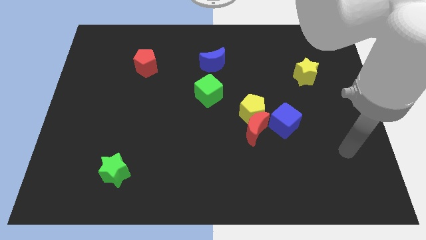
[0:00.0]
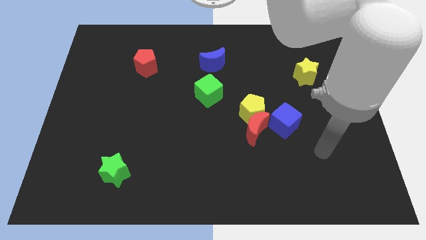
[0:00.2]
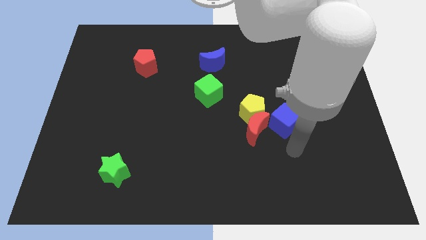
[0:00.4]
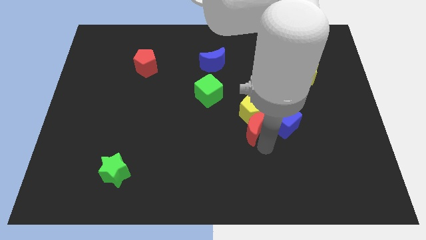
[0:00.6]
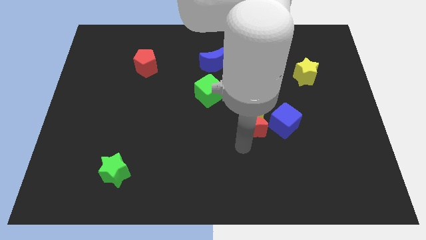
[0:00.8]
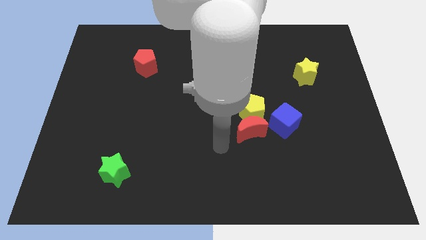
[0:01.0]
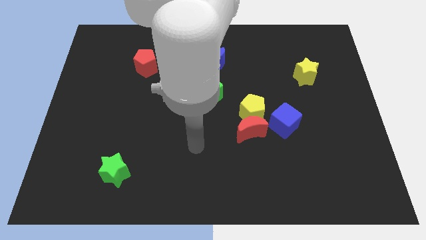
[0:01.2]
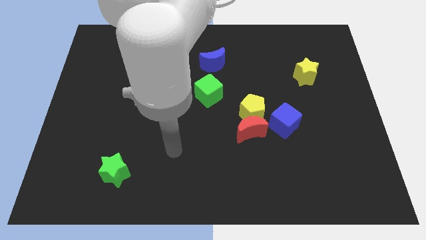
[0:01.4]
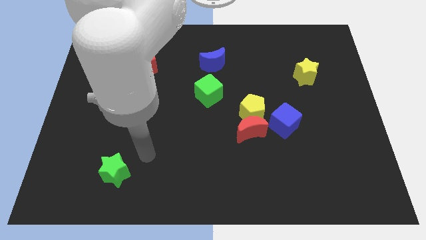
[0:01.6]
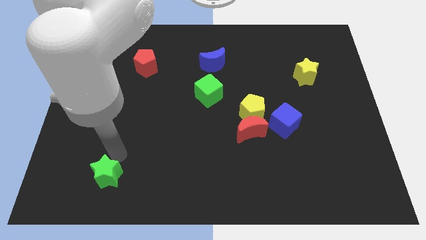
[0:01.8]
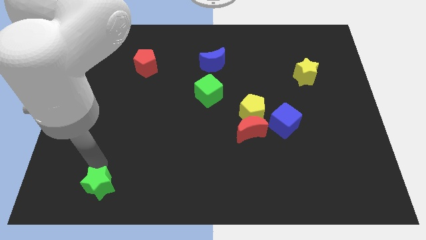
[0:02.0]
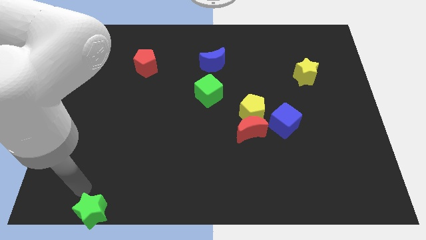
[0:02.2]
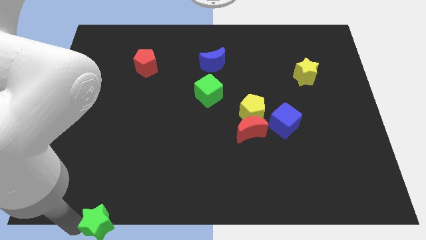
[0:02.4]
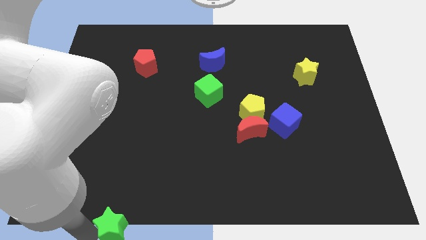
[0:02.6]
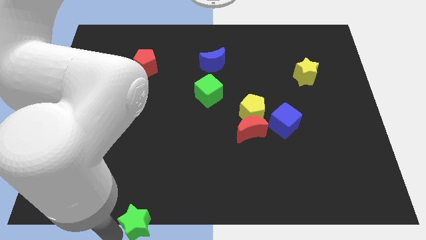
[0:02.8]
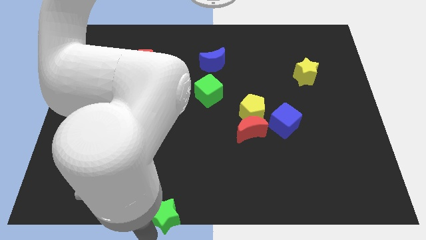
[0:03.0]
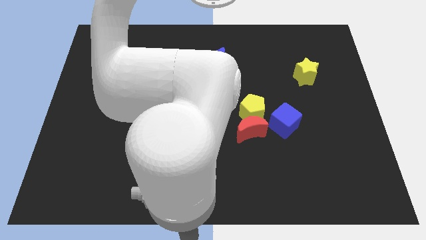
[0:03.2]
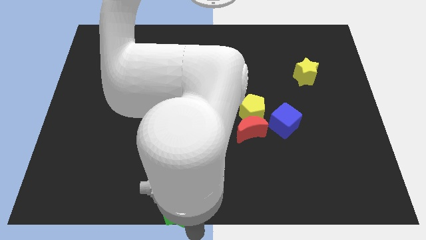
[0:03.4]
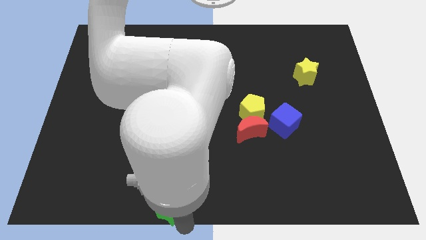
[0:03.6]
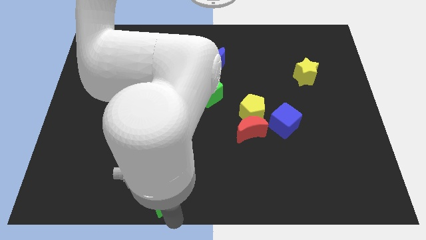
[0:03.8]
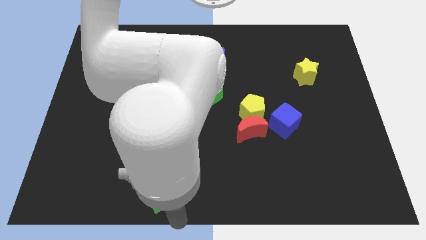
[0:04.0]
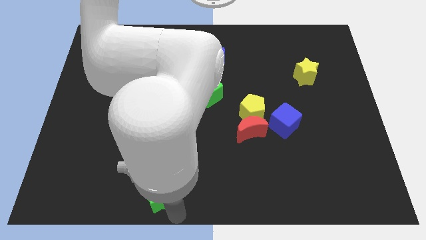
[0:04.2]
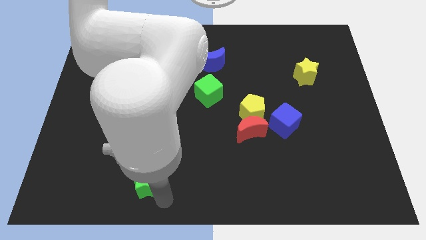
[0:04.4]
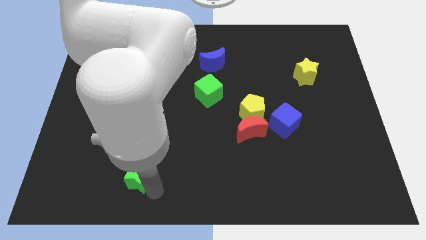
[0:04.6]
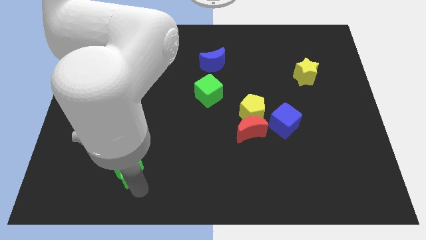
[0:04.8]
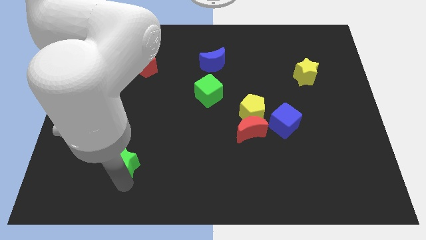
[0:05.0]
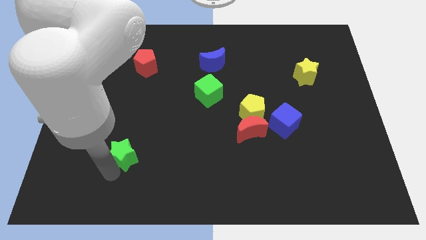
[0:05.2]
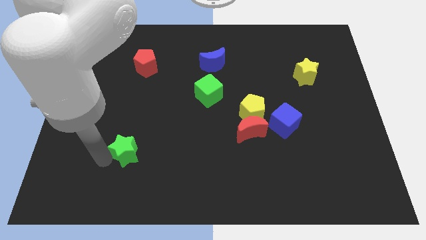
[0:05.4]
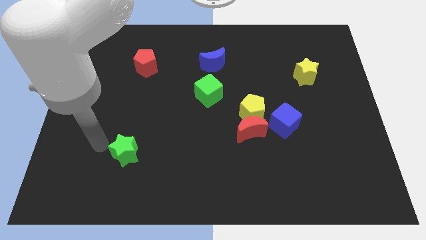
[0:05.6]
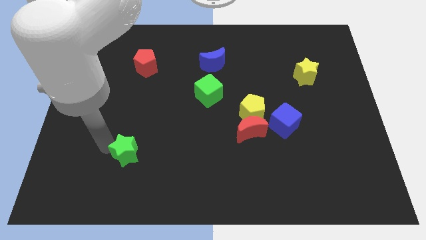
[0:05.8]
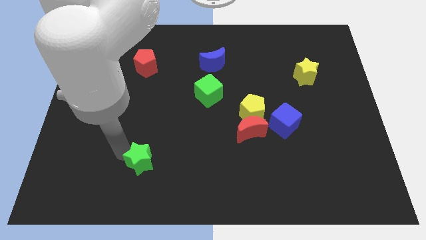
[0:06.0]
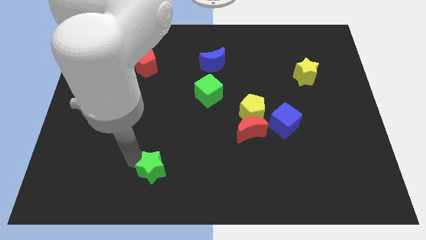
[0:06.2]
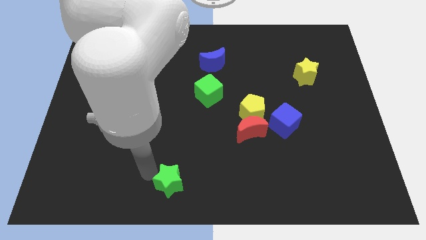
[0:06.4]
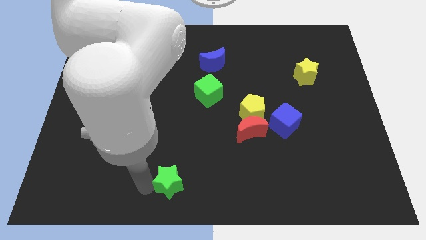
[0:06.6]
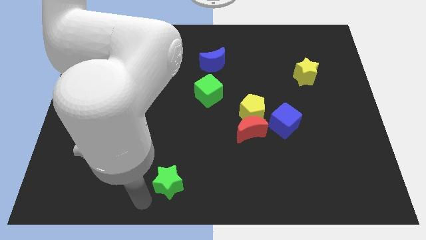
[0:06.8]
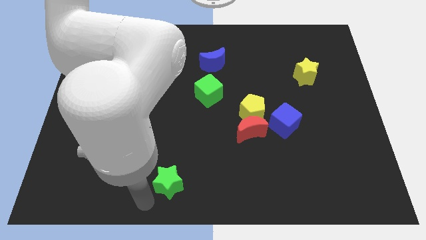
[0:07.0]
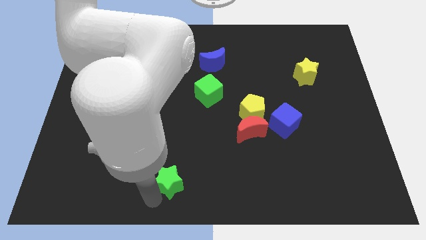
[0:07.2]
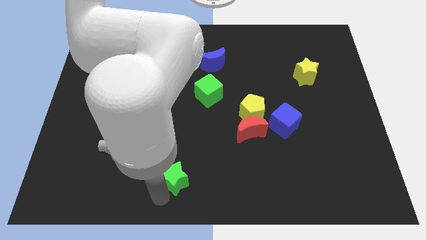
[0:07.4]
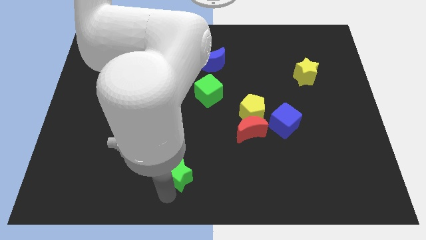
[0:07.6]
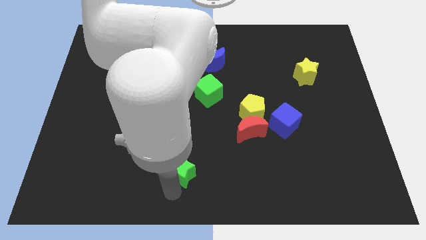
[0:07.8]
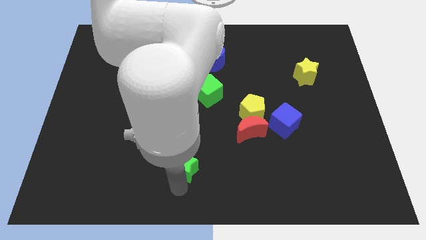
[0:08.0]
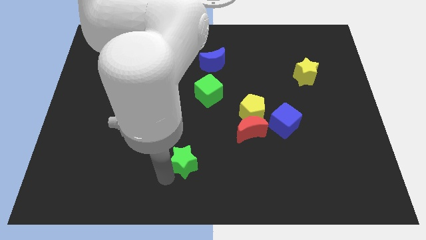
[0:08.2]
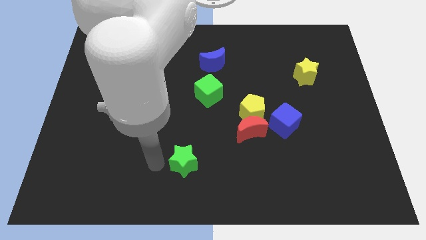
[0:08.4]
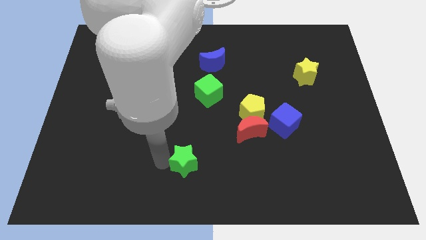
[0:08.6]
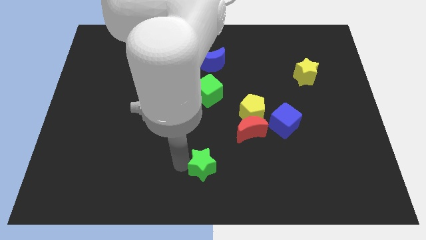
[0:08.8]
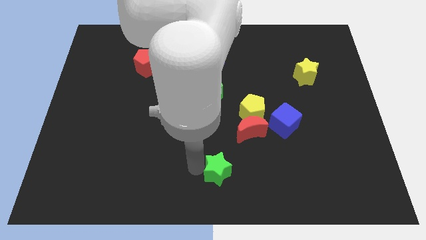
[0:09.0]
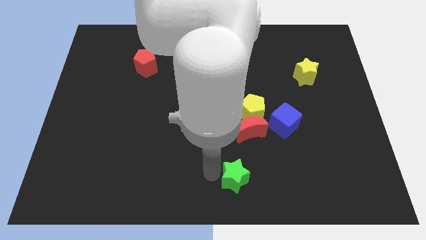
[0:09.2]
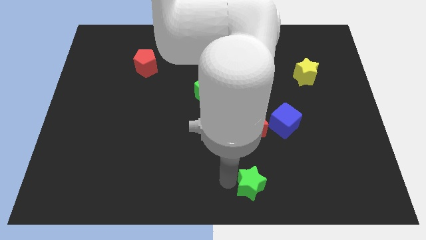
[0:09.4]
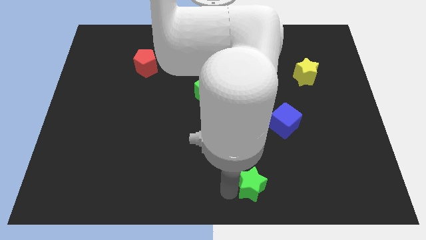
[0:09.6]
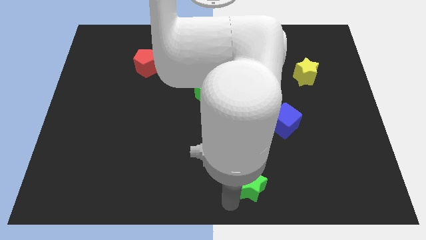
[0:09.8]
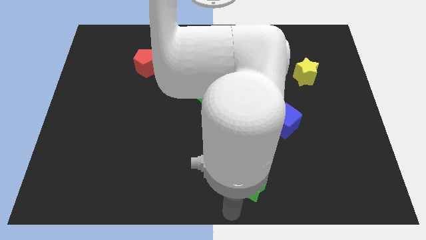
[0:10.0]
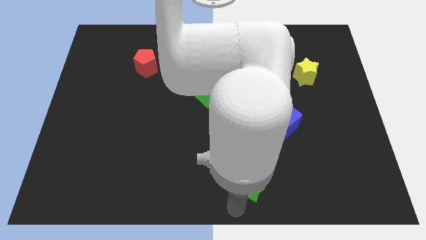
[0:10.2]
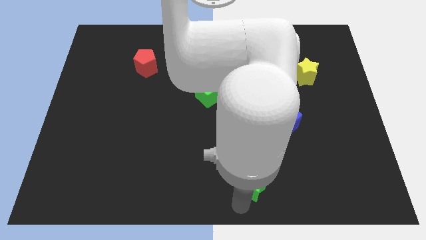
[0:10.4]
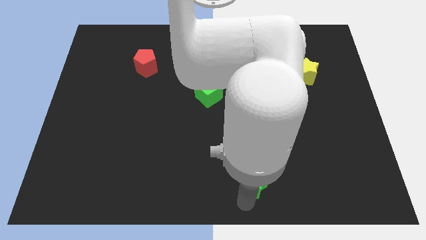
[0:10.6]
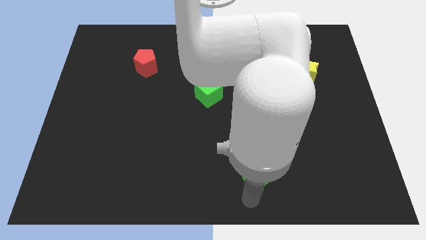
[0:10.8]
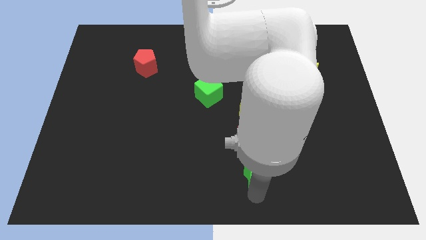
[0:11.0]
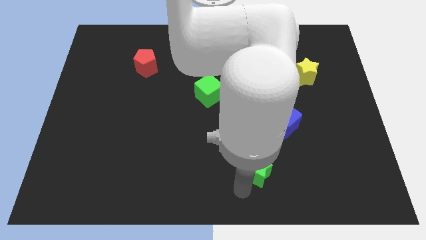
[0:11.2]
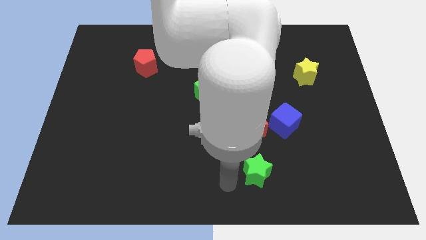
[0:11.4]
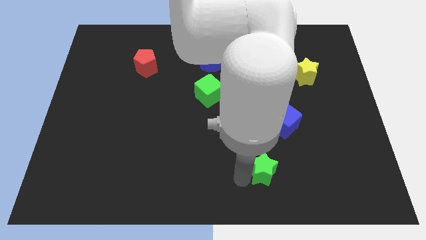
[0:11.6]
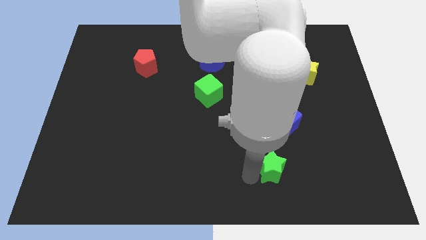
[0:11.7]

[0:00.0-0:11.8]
put the green star below the blue cube

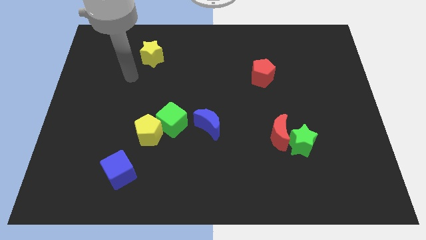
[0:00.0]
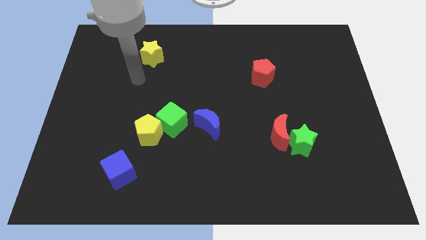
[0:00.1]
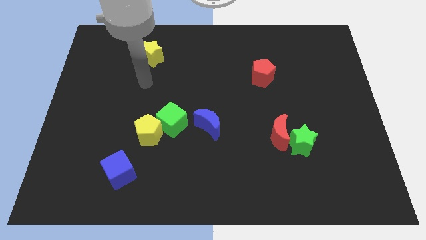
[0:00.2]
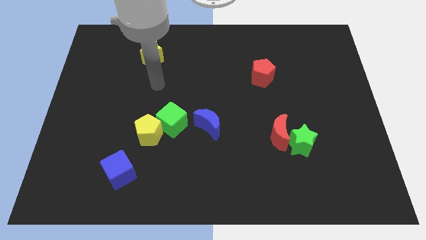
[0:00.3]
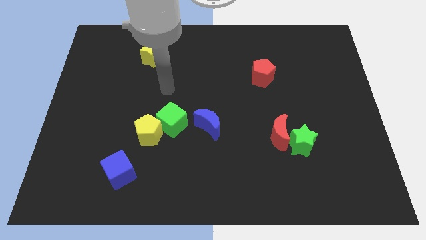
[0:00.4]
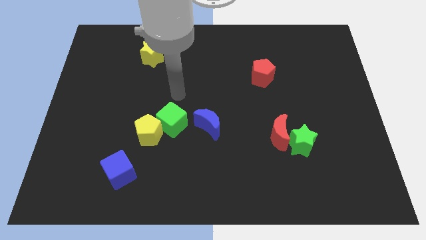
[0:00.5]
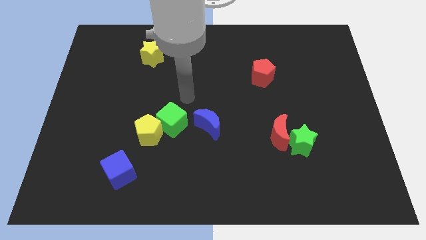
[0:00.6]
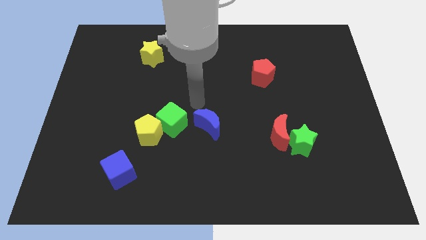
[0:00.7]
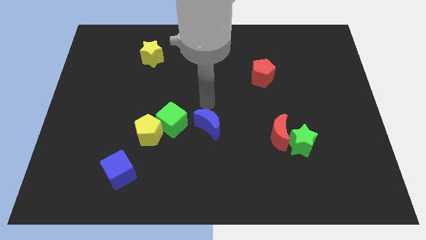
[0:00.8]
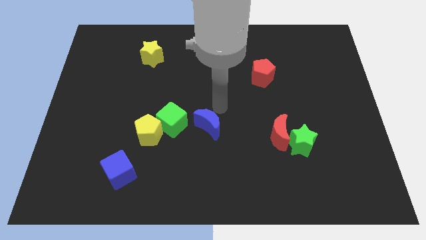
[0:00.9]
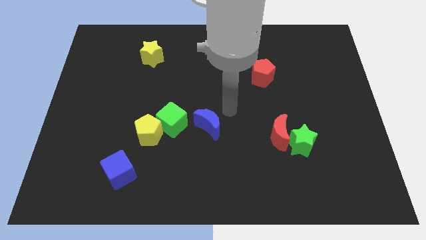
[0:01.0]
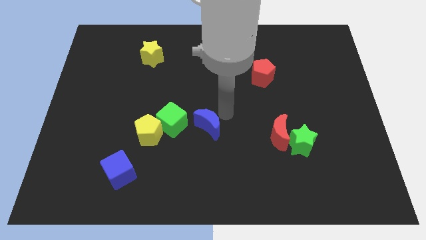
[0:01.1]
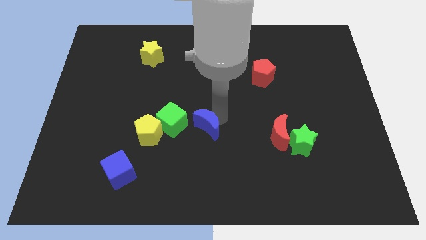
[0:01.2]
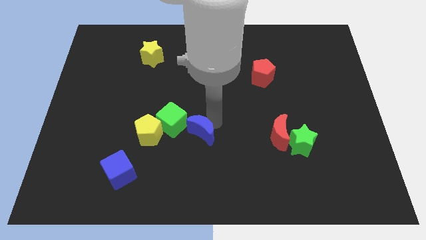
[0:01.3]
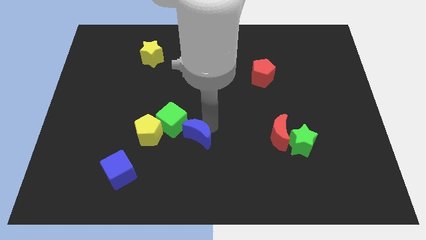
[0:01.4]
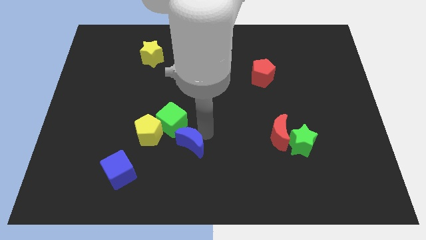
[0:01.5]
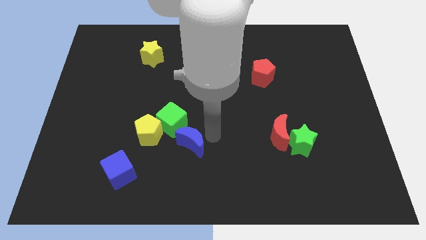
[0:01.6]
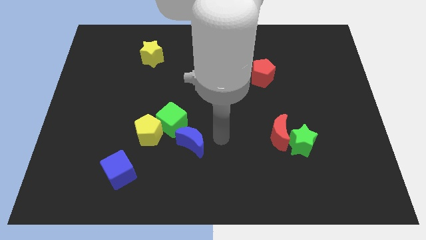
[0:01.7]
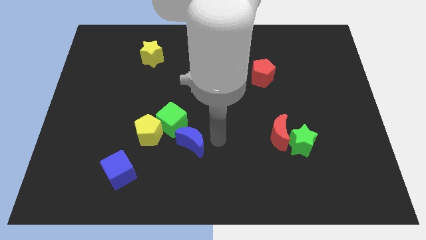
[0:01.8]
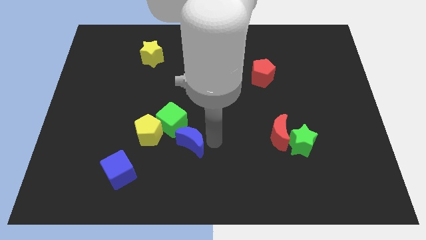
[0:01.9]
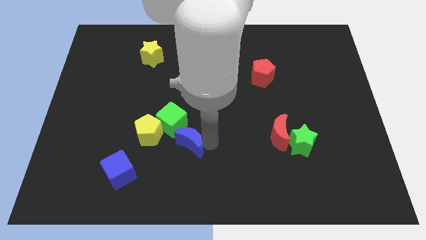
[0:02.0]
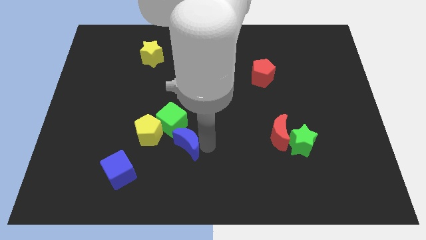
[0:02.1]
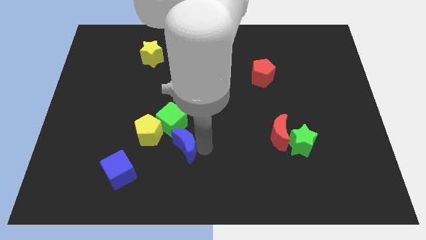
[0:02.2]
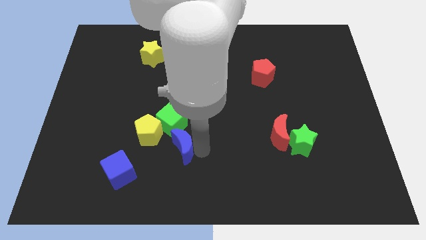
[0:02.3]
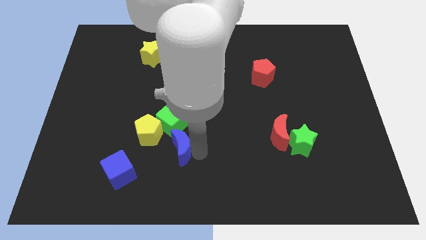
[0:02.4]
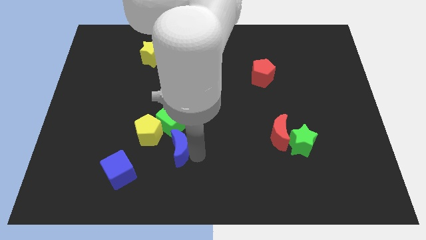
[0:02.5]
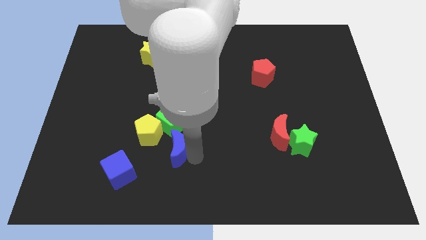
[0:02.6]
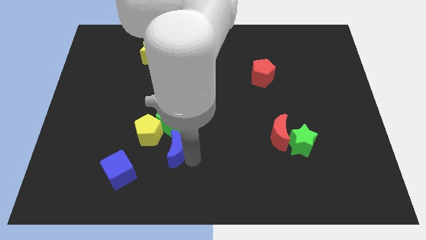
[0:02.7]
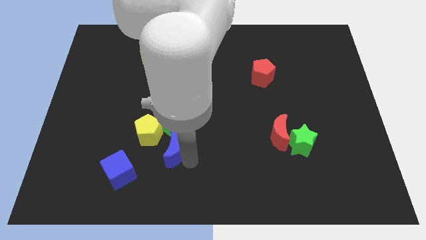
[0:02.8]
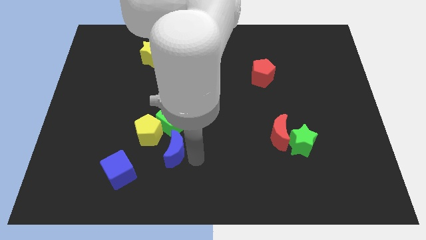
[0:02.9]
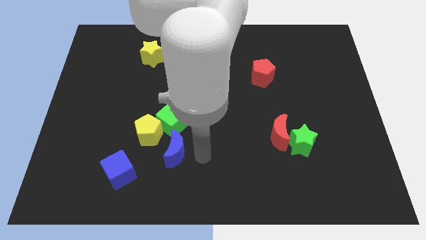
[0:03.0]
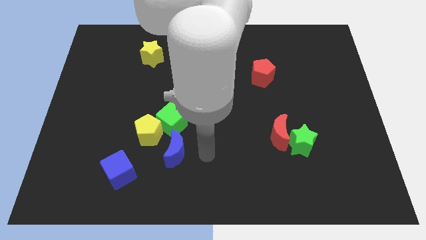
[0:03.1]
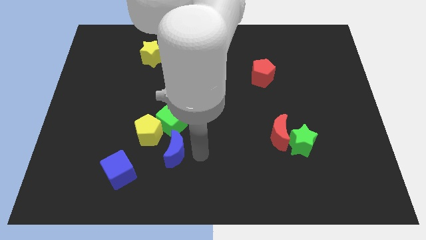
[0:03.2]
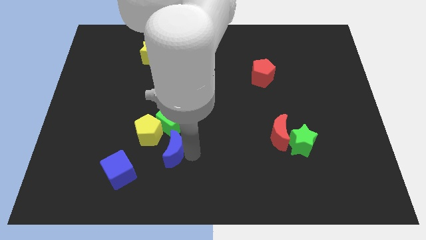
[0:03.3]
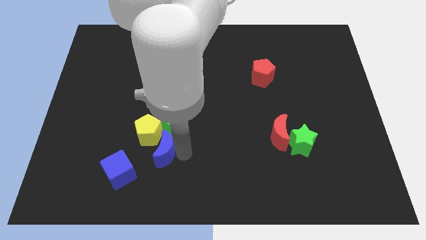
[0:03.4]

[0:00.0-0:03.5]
put the blue moon to the top right of the blue cube
